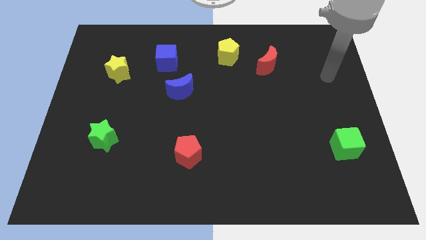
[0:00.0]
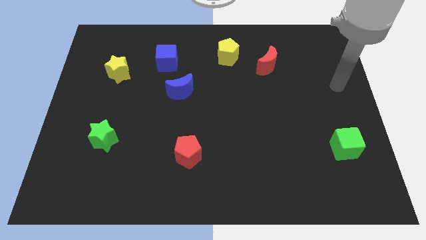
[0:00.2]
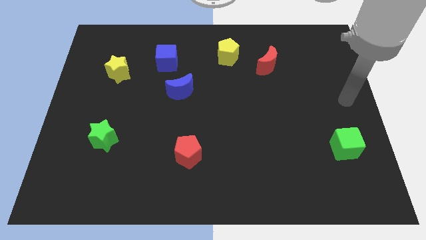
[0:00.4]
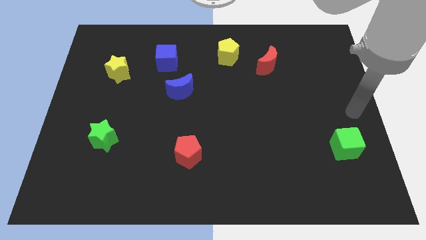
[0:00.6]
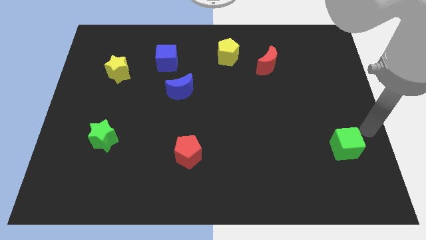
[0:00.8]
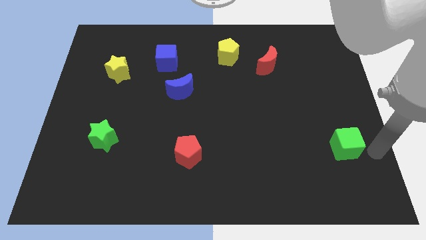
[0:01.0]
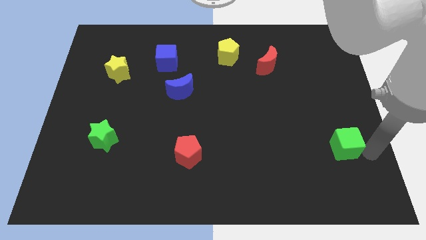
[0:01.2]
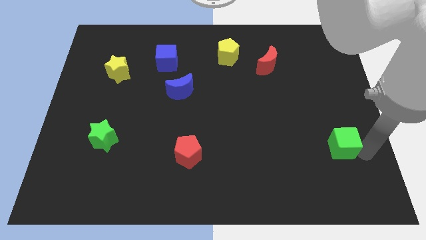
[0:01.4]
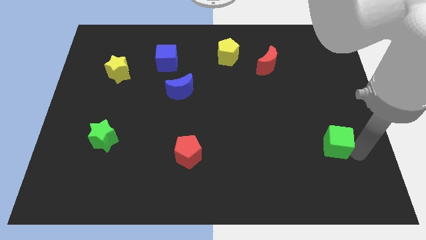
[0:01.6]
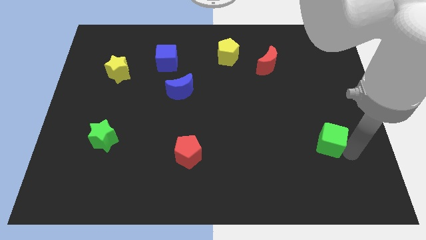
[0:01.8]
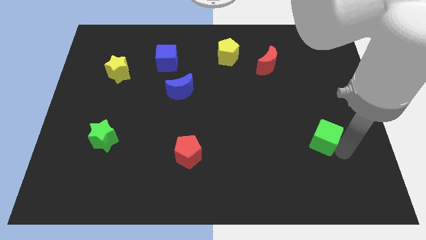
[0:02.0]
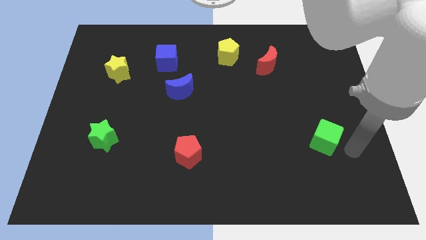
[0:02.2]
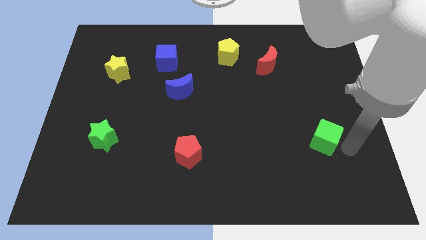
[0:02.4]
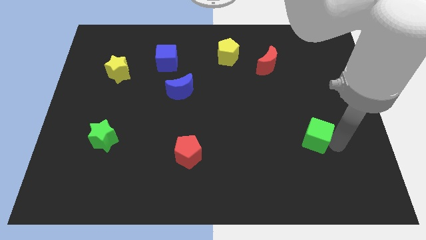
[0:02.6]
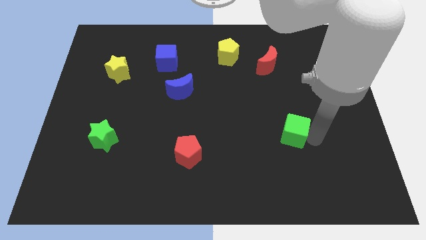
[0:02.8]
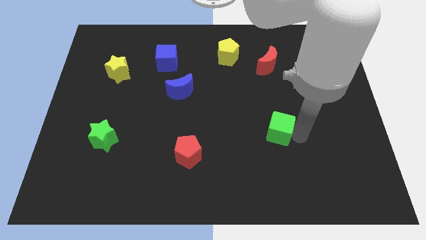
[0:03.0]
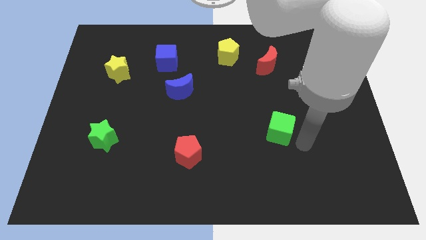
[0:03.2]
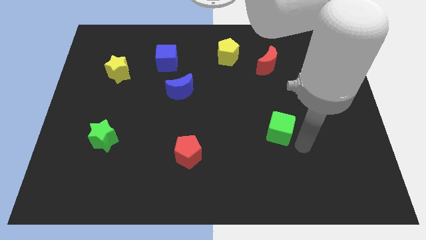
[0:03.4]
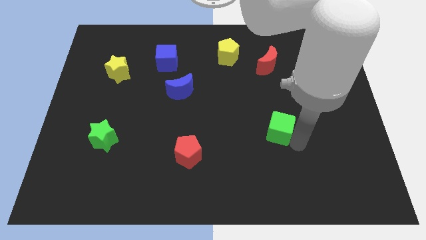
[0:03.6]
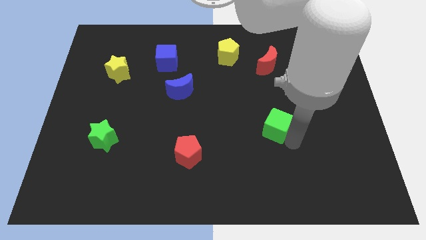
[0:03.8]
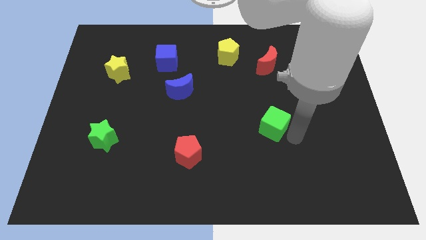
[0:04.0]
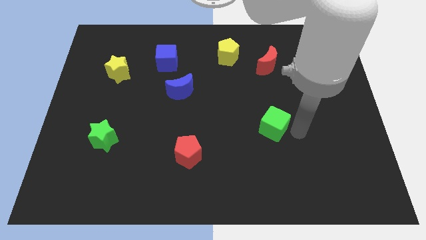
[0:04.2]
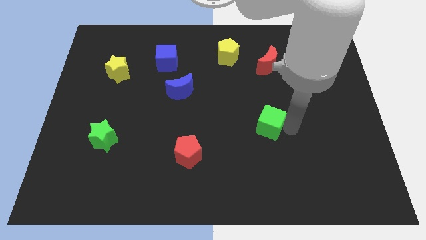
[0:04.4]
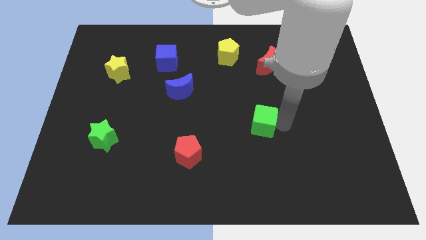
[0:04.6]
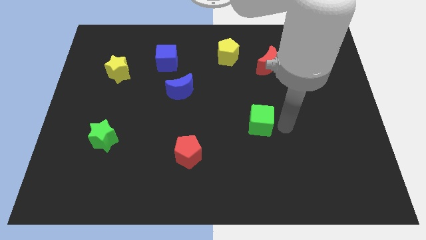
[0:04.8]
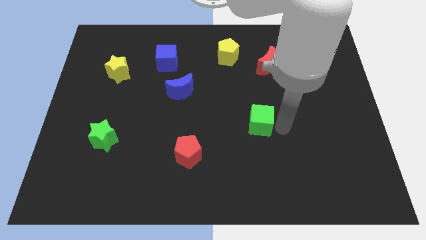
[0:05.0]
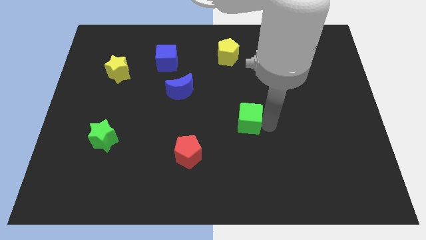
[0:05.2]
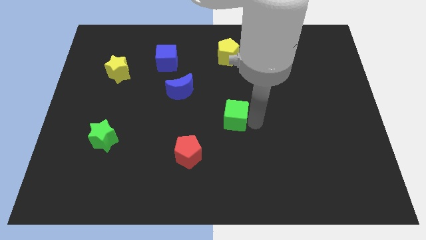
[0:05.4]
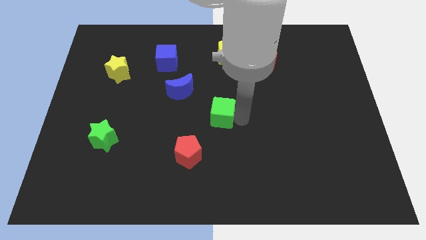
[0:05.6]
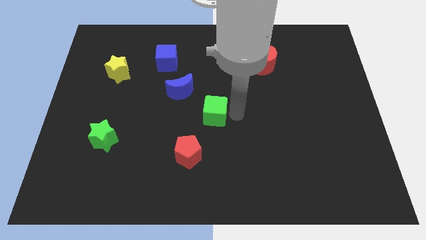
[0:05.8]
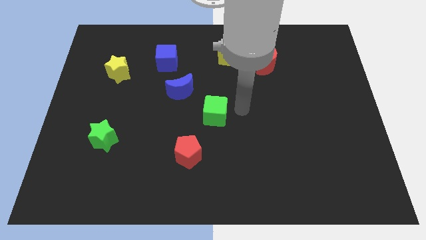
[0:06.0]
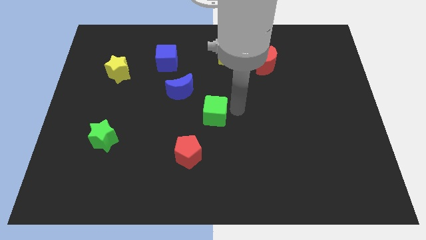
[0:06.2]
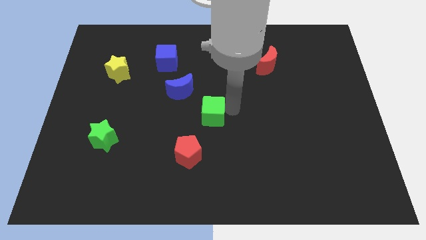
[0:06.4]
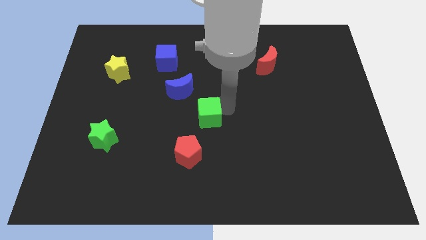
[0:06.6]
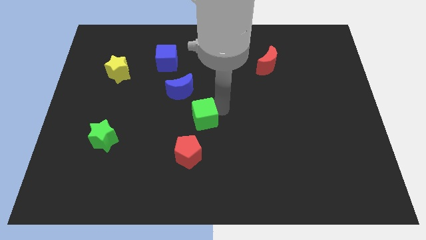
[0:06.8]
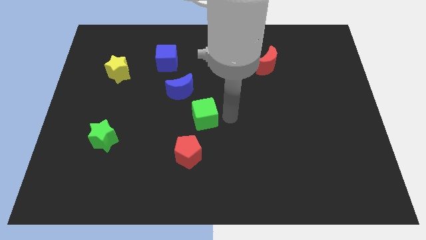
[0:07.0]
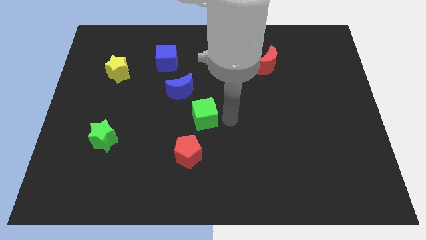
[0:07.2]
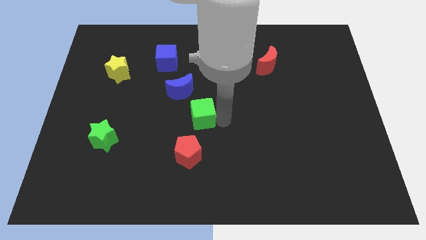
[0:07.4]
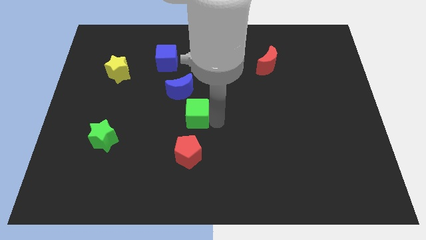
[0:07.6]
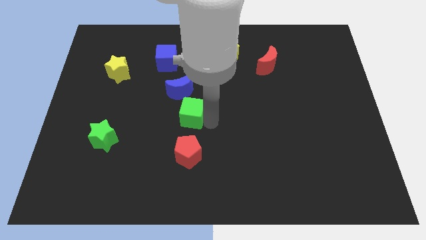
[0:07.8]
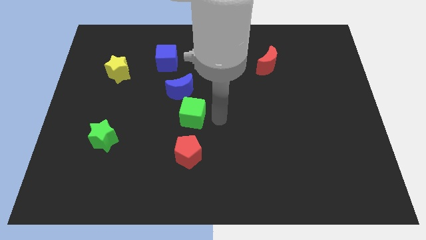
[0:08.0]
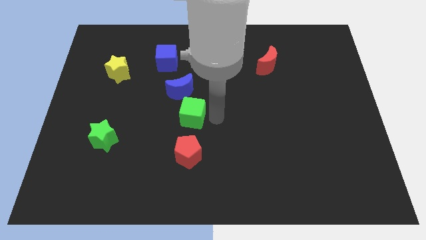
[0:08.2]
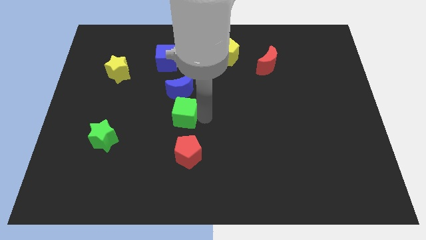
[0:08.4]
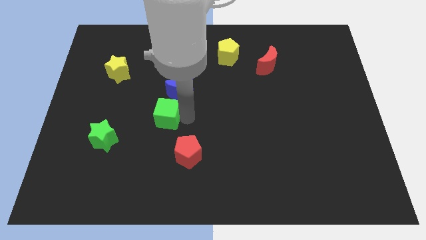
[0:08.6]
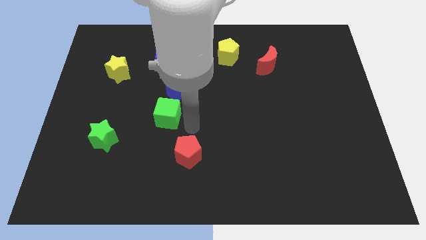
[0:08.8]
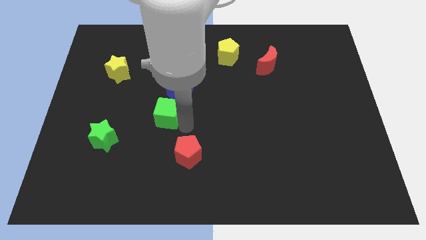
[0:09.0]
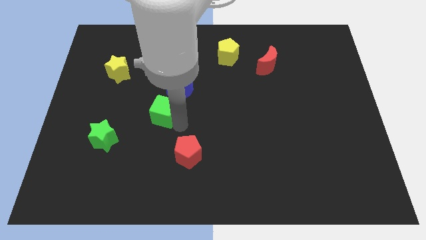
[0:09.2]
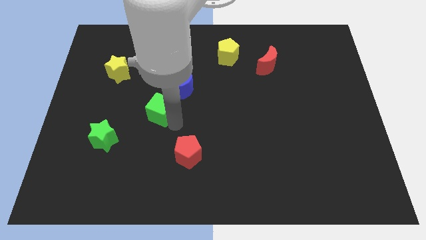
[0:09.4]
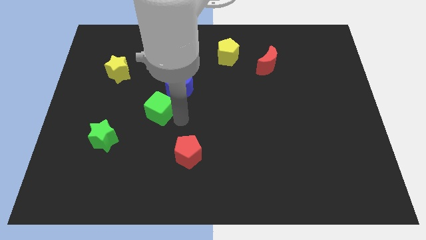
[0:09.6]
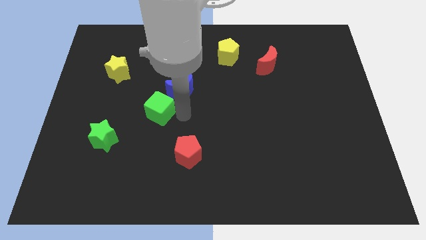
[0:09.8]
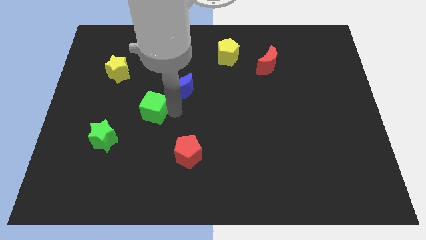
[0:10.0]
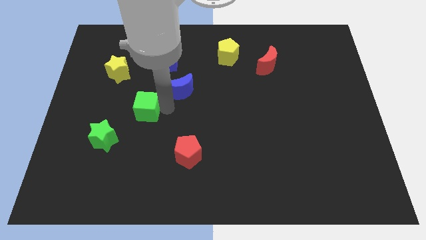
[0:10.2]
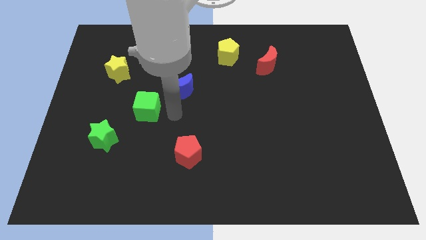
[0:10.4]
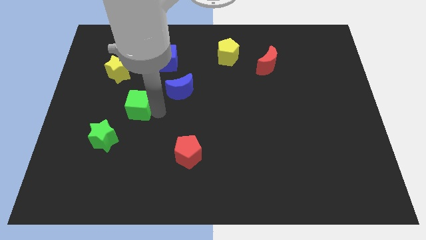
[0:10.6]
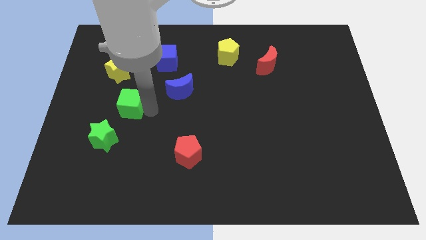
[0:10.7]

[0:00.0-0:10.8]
push the green cube to the bottom of the yellow star

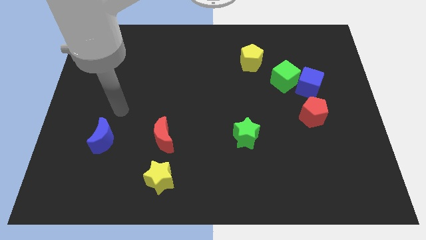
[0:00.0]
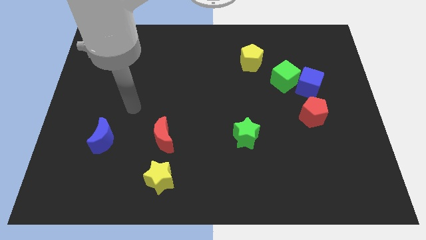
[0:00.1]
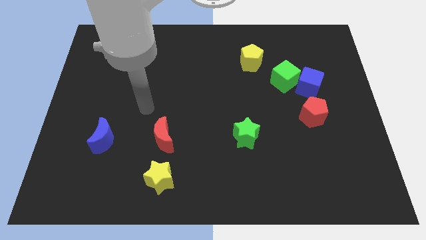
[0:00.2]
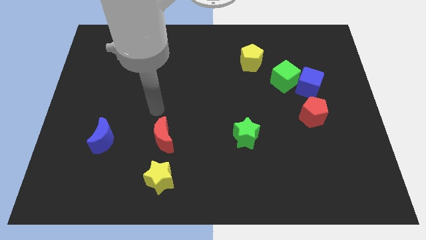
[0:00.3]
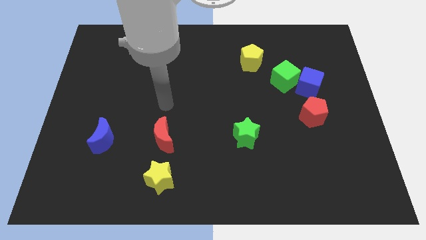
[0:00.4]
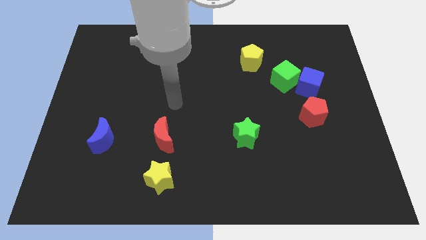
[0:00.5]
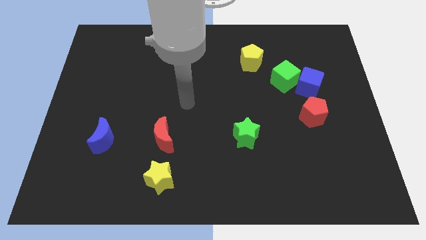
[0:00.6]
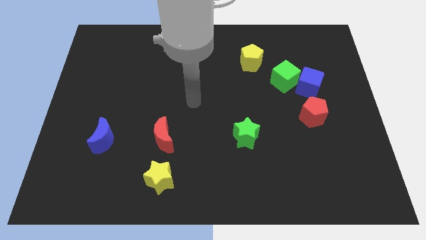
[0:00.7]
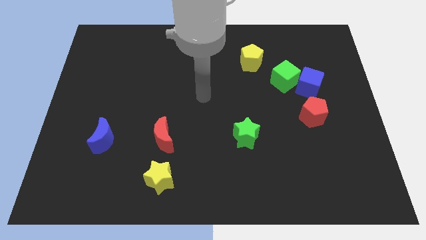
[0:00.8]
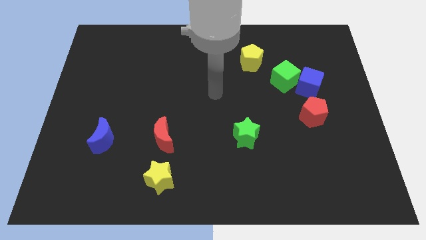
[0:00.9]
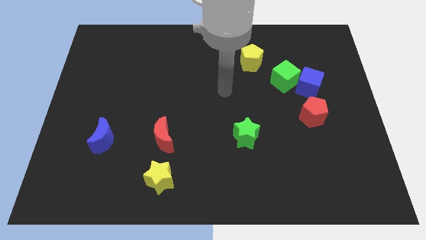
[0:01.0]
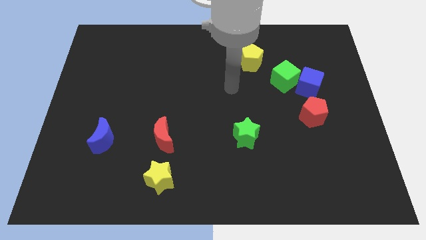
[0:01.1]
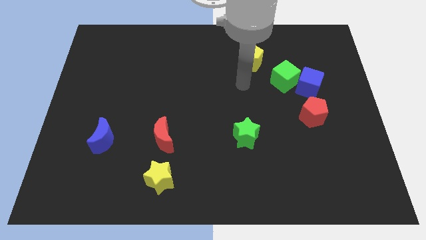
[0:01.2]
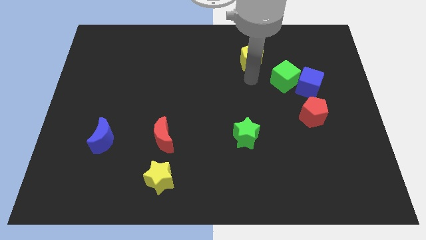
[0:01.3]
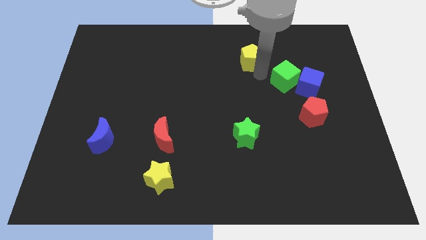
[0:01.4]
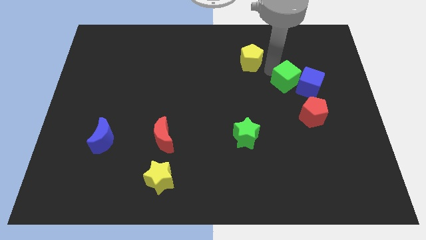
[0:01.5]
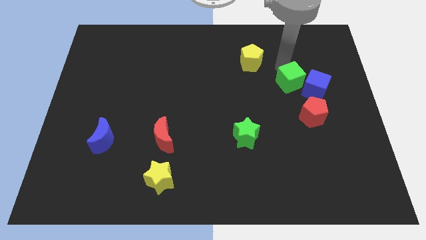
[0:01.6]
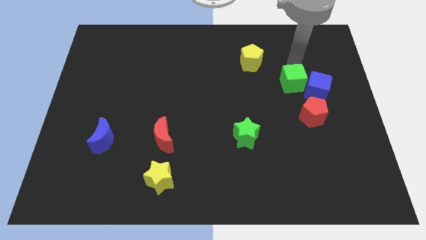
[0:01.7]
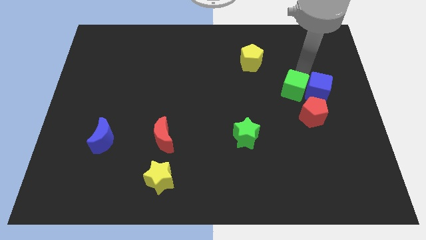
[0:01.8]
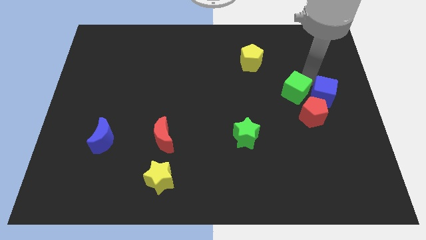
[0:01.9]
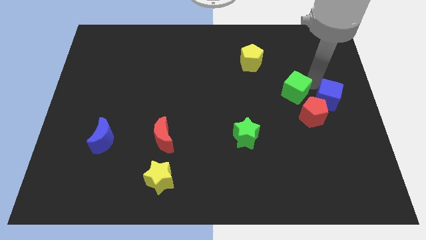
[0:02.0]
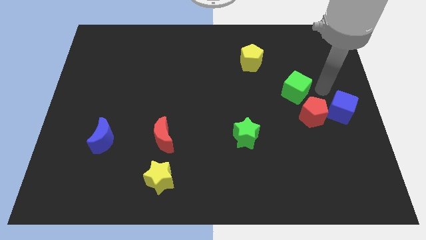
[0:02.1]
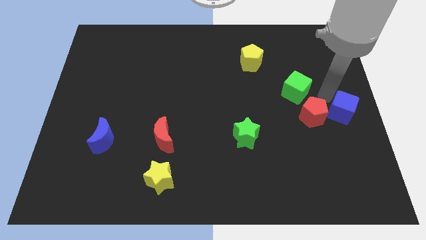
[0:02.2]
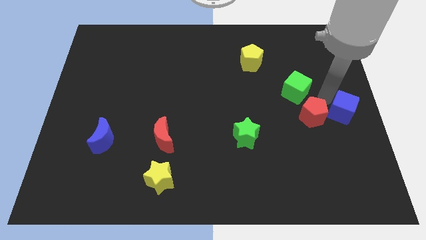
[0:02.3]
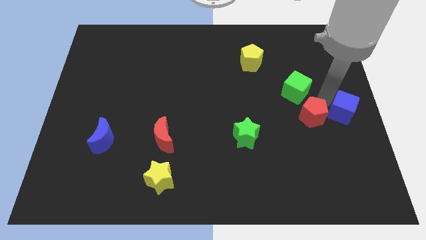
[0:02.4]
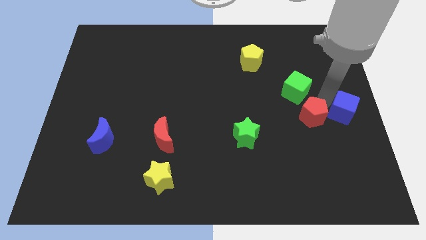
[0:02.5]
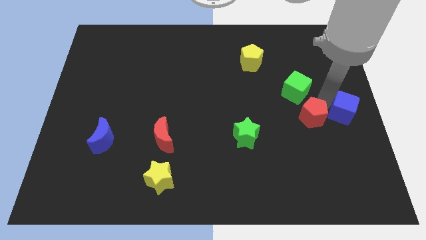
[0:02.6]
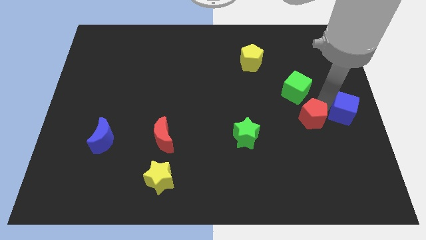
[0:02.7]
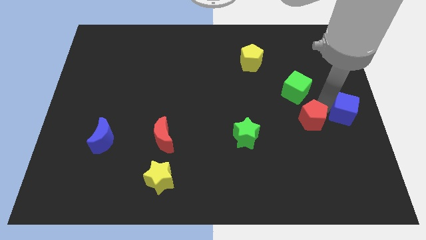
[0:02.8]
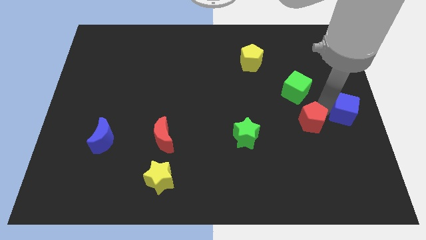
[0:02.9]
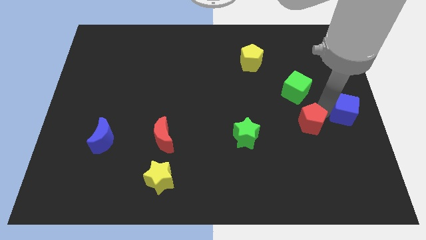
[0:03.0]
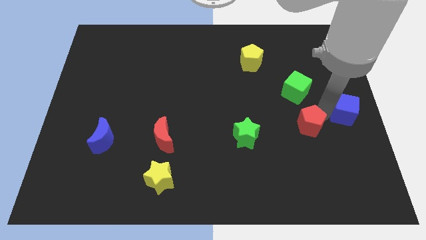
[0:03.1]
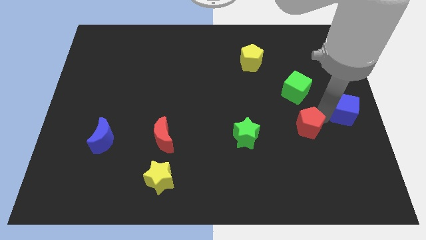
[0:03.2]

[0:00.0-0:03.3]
push the red pentagon right of the green star
